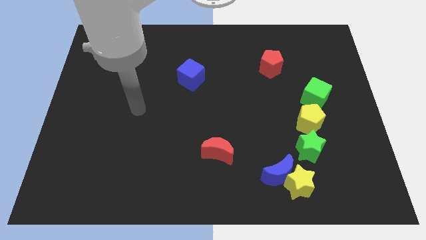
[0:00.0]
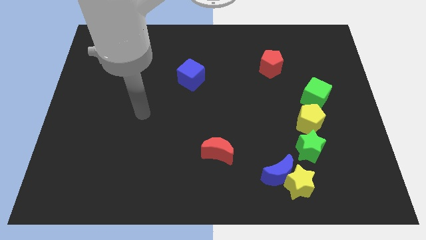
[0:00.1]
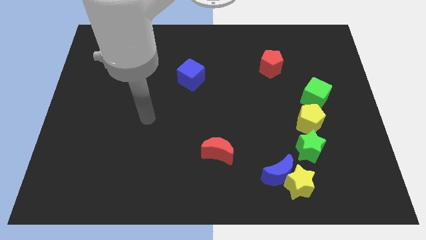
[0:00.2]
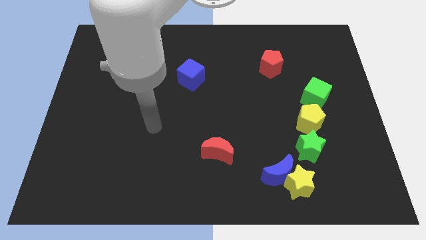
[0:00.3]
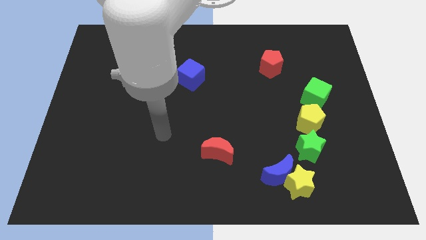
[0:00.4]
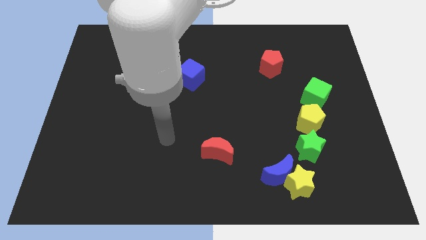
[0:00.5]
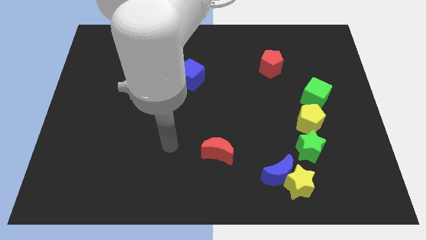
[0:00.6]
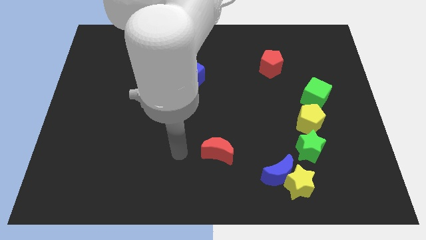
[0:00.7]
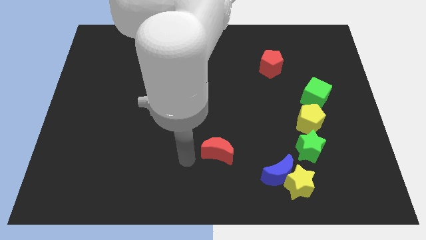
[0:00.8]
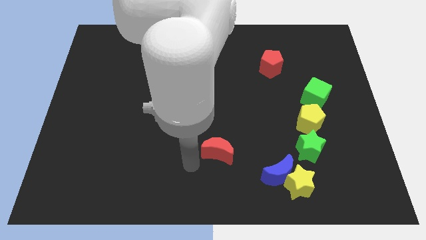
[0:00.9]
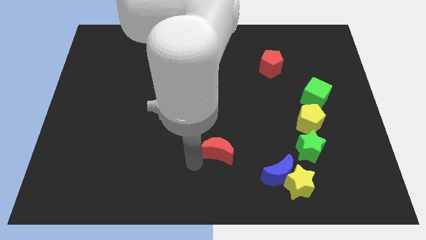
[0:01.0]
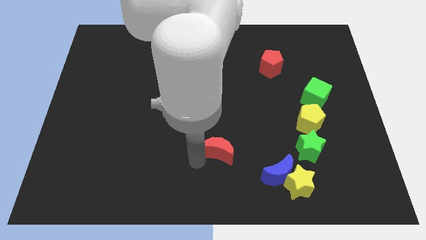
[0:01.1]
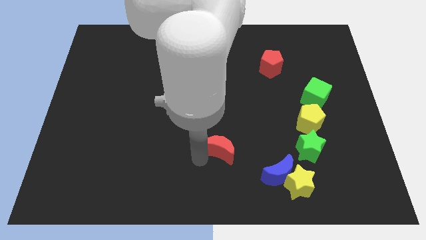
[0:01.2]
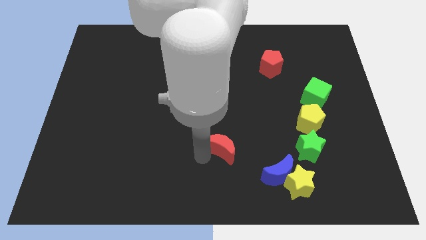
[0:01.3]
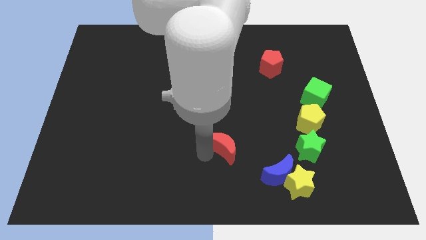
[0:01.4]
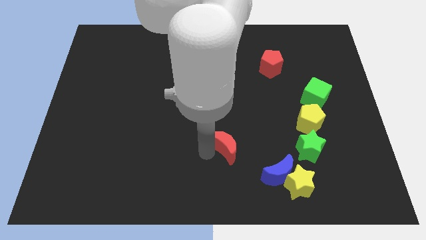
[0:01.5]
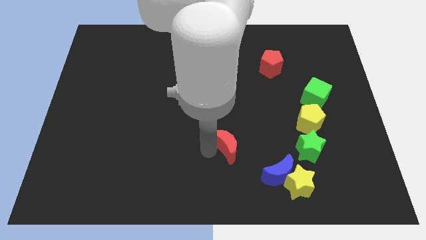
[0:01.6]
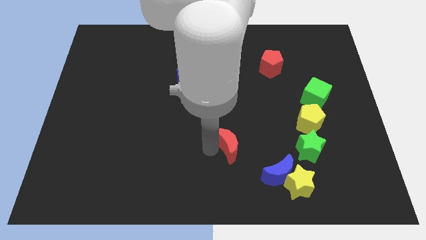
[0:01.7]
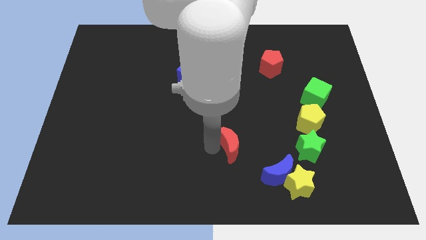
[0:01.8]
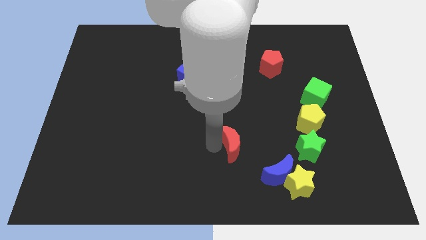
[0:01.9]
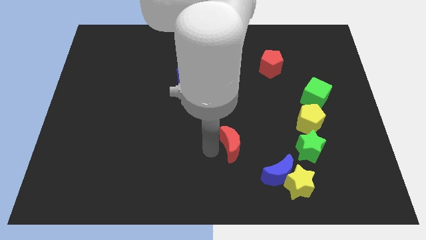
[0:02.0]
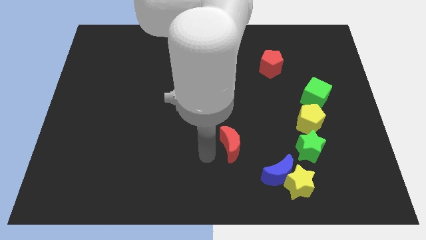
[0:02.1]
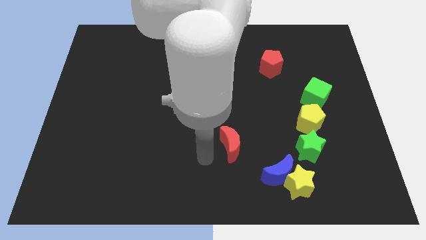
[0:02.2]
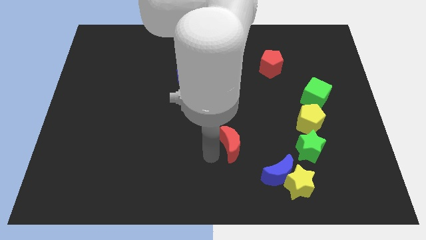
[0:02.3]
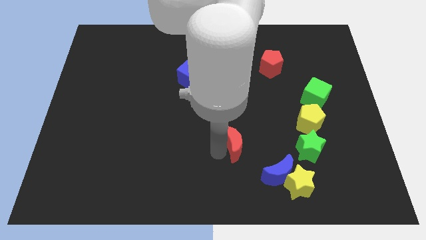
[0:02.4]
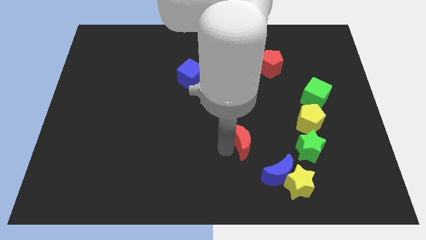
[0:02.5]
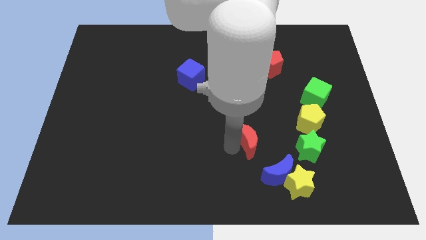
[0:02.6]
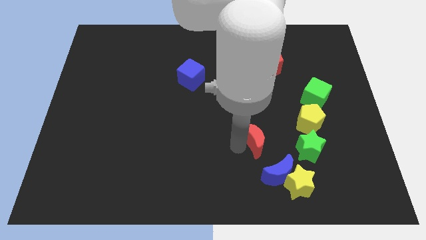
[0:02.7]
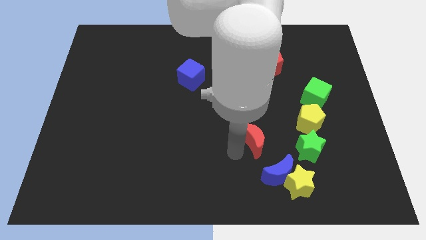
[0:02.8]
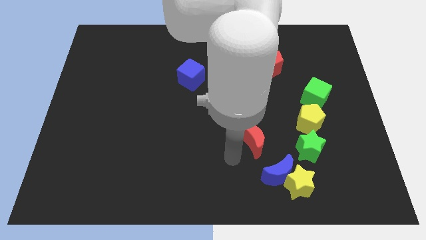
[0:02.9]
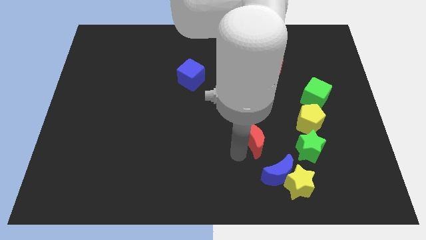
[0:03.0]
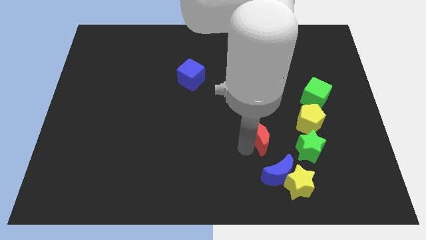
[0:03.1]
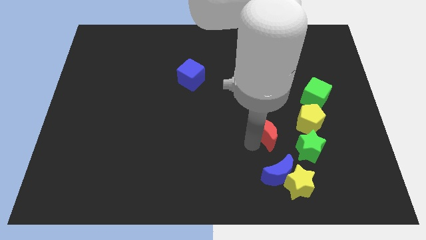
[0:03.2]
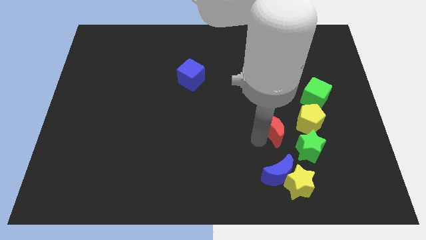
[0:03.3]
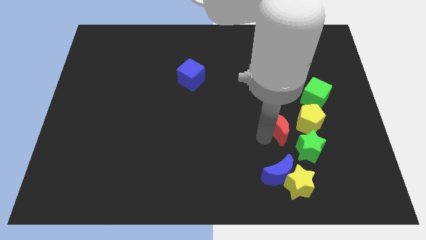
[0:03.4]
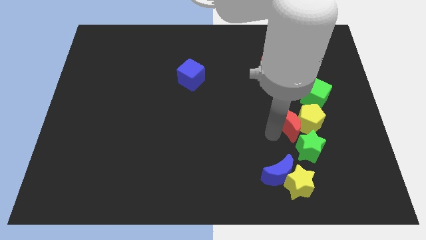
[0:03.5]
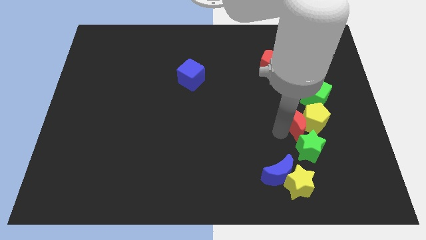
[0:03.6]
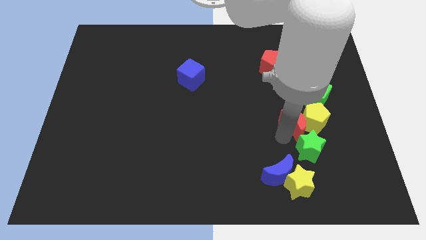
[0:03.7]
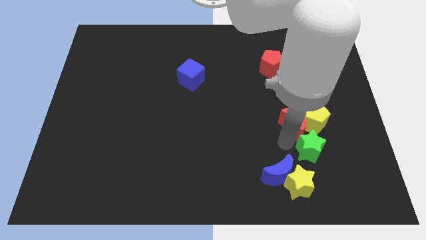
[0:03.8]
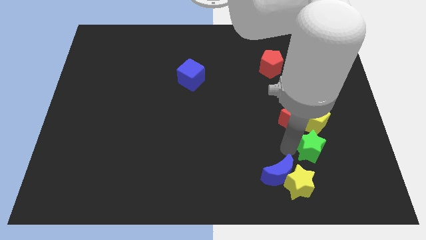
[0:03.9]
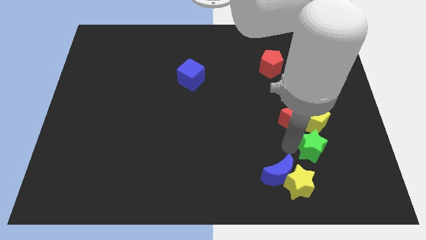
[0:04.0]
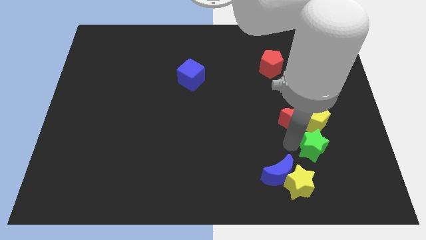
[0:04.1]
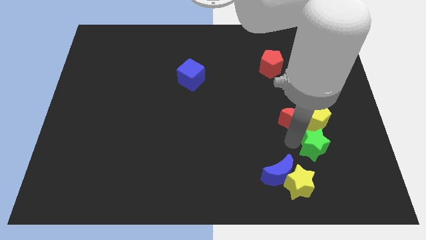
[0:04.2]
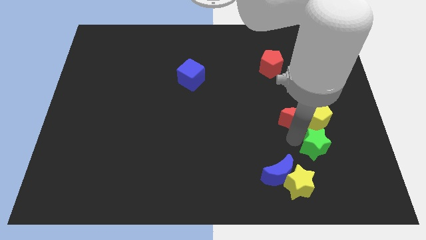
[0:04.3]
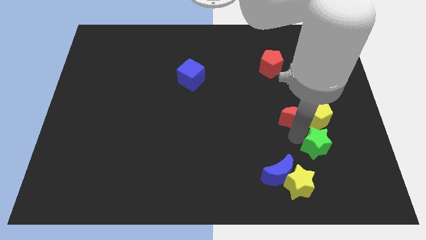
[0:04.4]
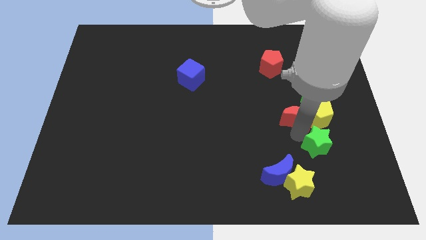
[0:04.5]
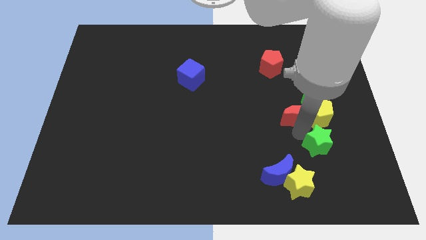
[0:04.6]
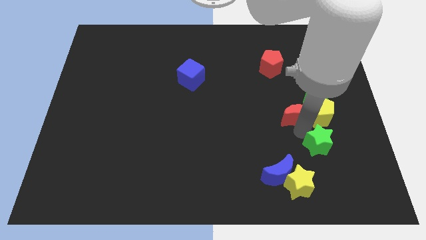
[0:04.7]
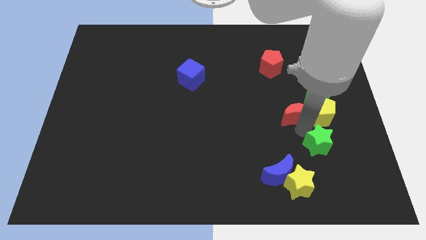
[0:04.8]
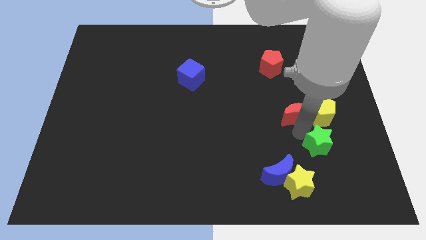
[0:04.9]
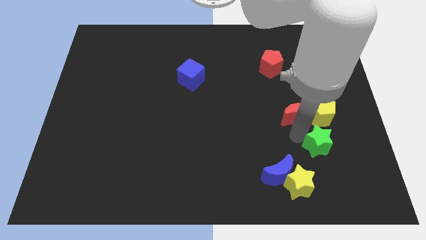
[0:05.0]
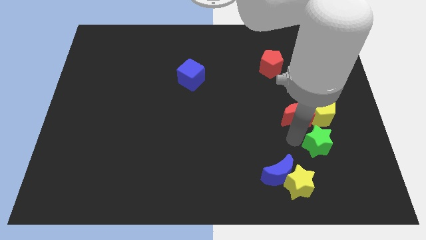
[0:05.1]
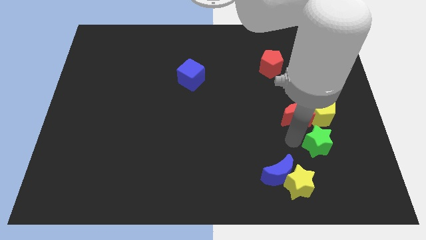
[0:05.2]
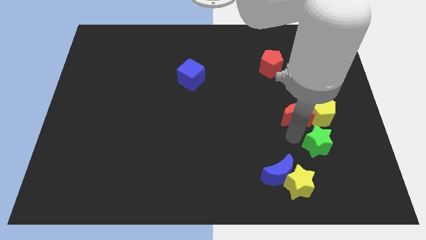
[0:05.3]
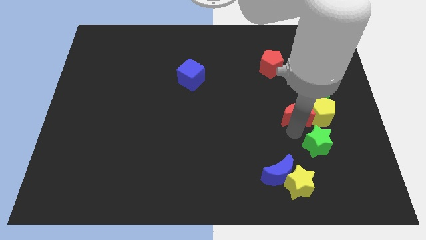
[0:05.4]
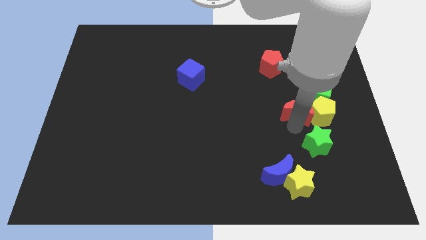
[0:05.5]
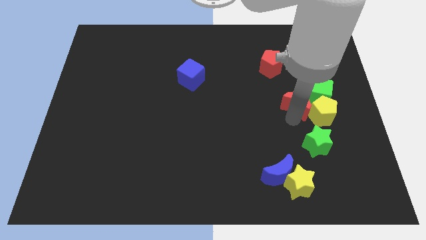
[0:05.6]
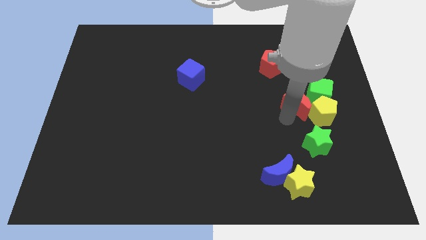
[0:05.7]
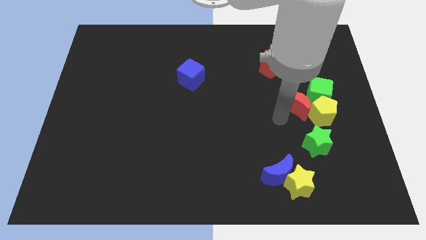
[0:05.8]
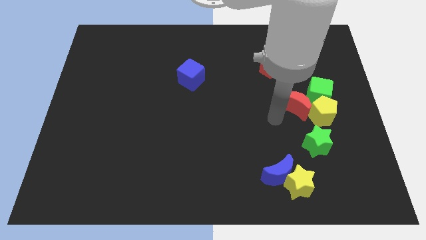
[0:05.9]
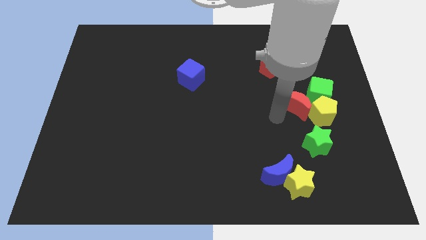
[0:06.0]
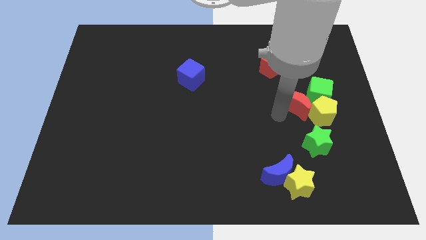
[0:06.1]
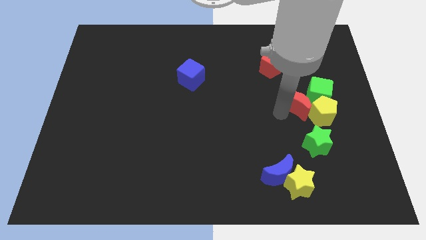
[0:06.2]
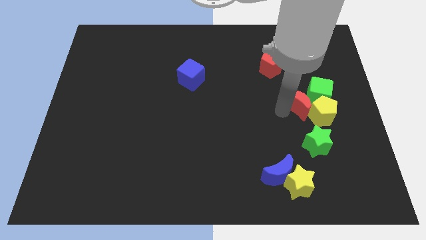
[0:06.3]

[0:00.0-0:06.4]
push the red moon close to the green cube
